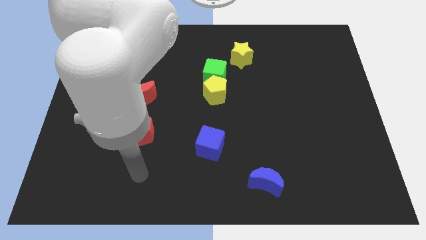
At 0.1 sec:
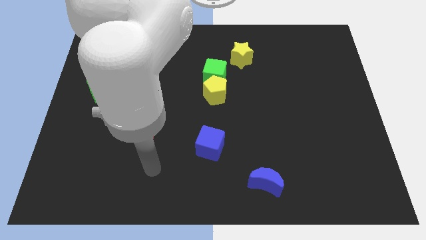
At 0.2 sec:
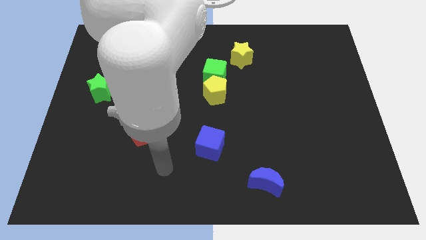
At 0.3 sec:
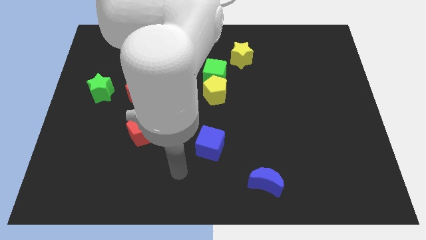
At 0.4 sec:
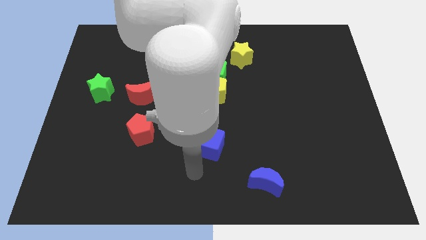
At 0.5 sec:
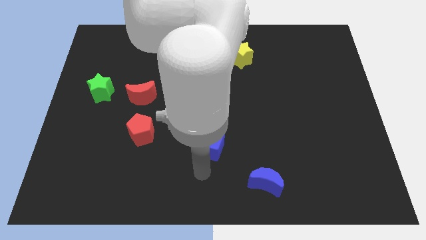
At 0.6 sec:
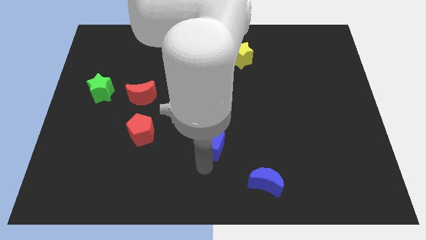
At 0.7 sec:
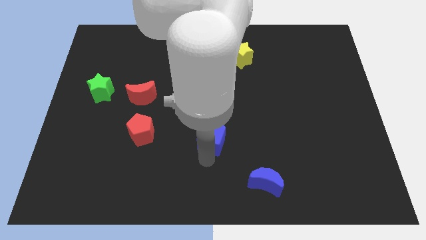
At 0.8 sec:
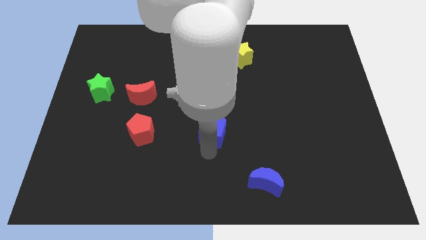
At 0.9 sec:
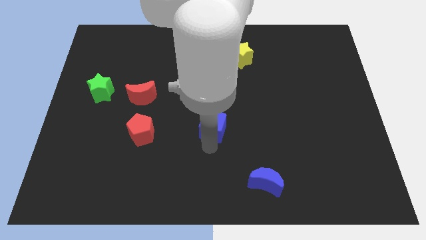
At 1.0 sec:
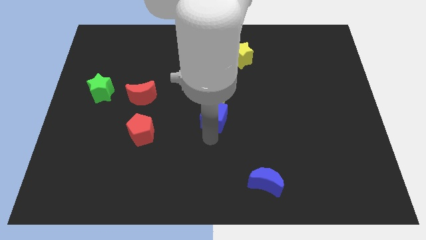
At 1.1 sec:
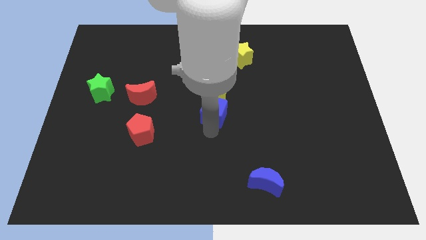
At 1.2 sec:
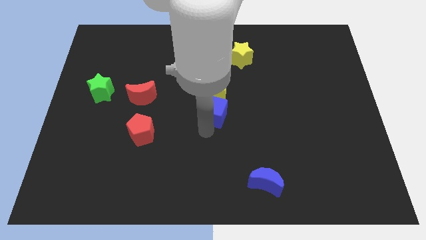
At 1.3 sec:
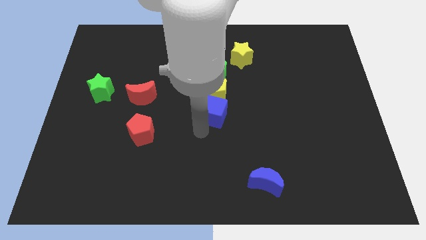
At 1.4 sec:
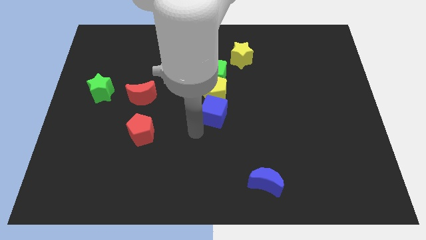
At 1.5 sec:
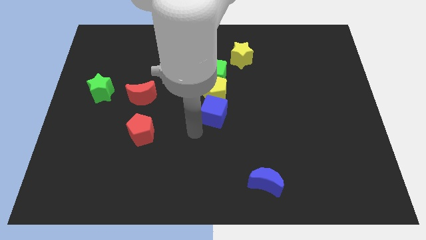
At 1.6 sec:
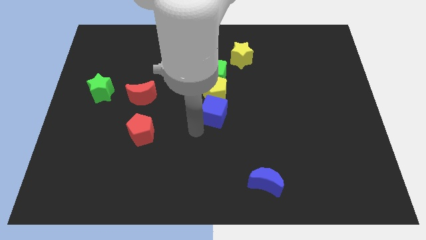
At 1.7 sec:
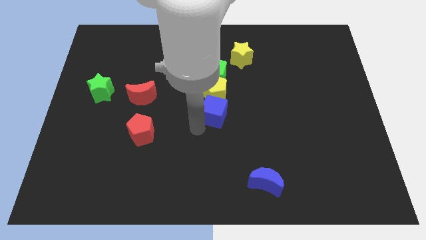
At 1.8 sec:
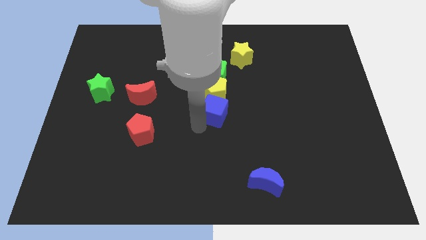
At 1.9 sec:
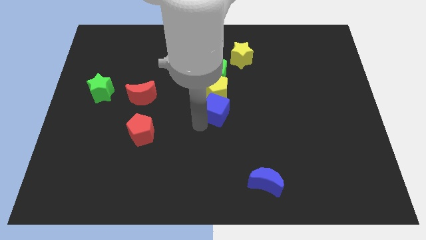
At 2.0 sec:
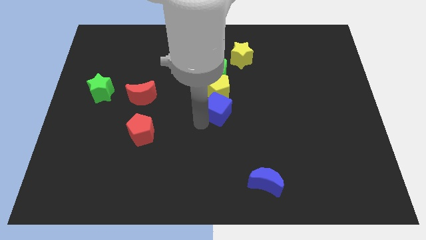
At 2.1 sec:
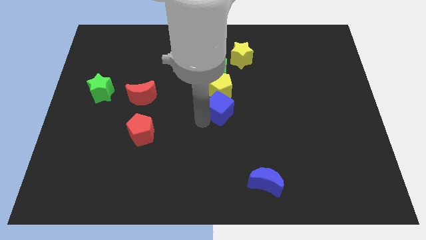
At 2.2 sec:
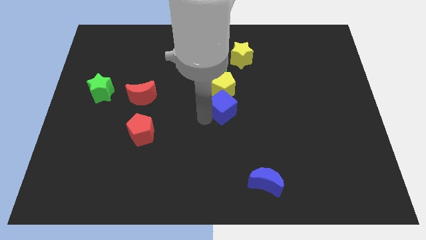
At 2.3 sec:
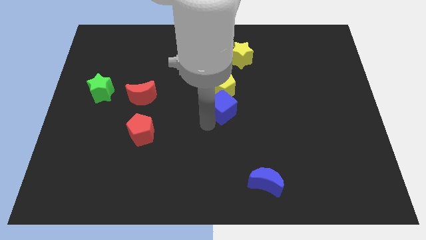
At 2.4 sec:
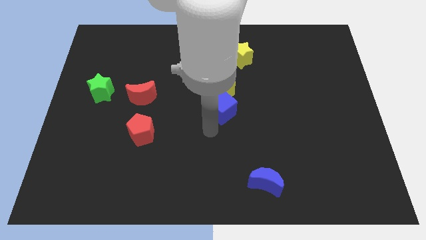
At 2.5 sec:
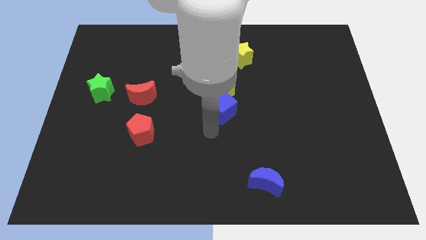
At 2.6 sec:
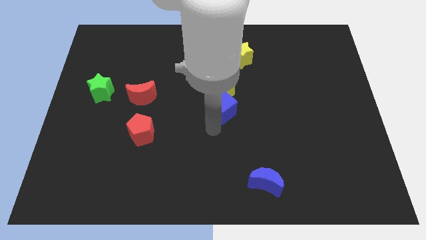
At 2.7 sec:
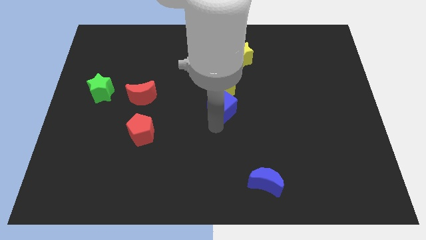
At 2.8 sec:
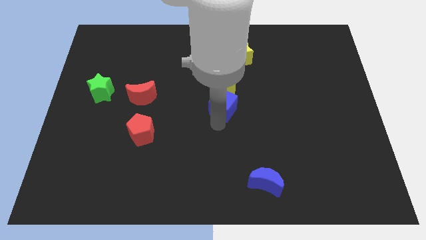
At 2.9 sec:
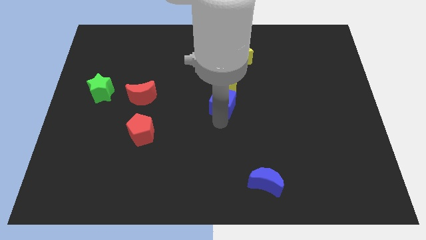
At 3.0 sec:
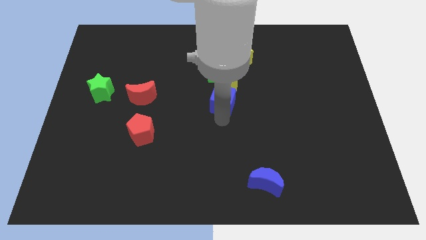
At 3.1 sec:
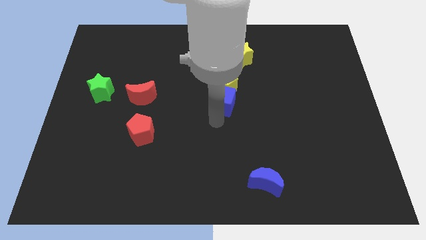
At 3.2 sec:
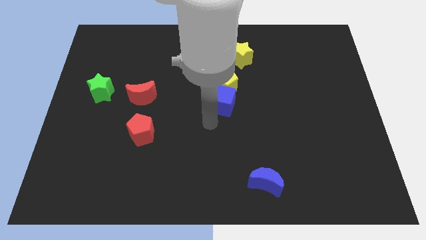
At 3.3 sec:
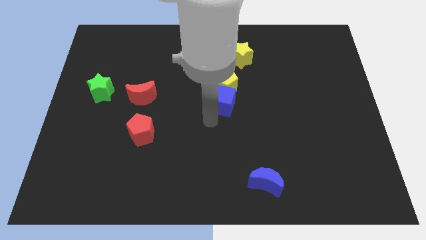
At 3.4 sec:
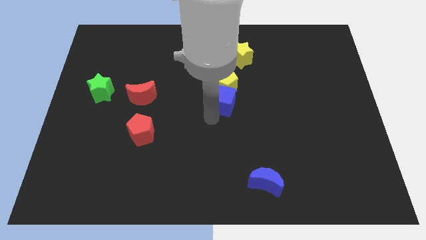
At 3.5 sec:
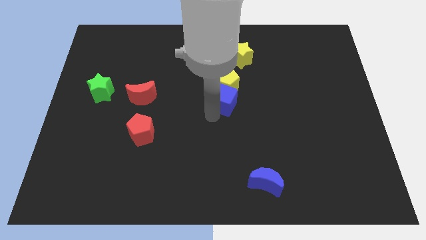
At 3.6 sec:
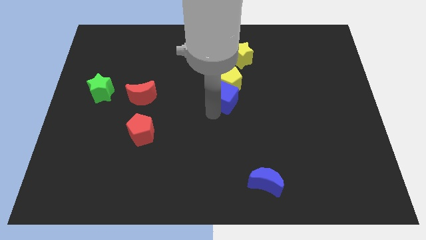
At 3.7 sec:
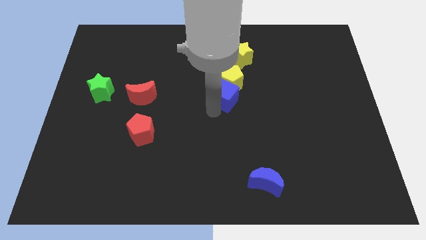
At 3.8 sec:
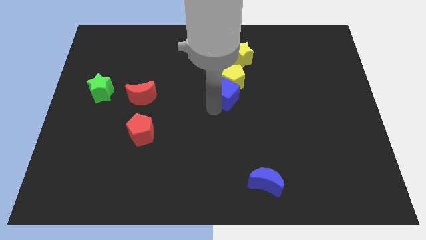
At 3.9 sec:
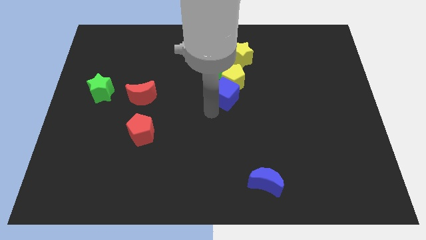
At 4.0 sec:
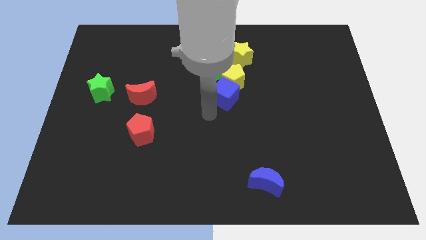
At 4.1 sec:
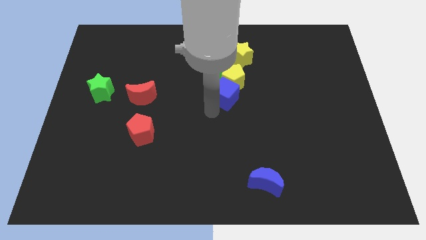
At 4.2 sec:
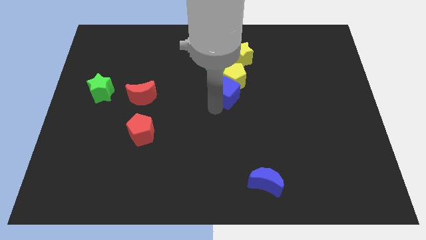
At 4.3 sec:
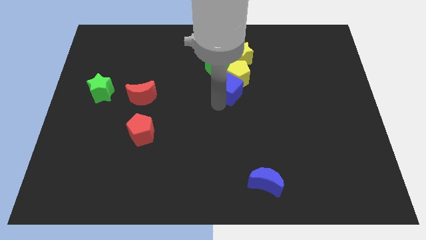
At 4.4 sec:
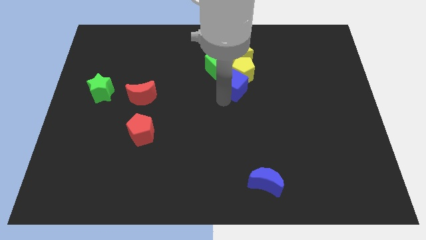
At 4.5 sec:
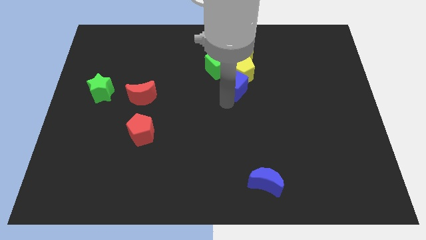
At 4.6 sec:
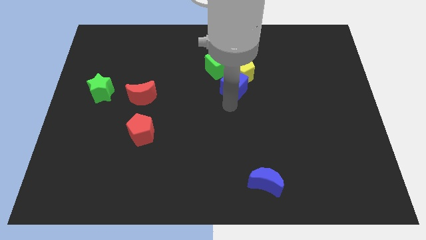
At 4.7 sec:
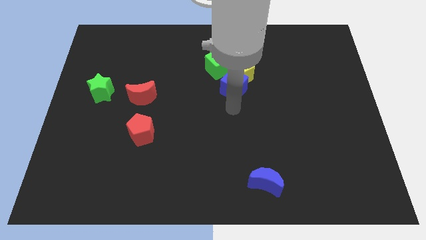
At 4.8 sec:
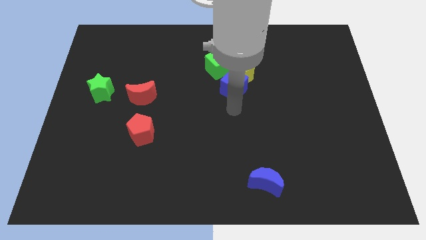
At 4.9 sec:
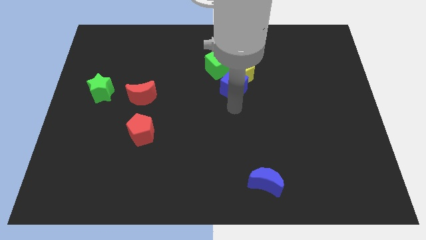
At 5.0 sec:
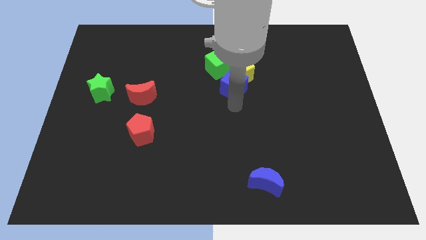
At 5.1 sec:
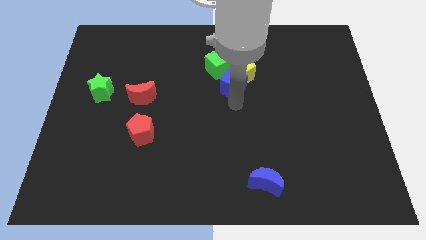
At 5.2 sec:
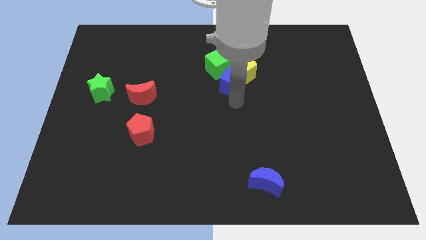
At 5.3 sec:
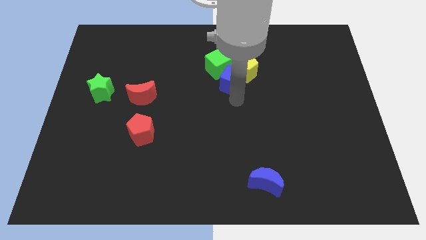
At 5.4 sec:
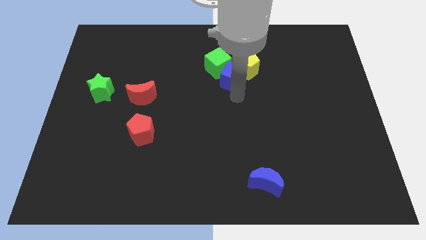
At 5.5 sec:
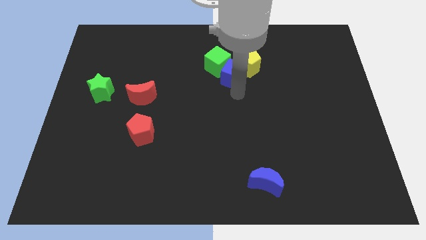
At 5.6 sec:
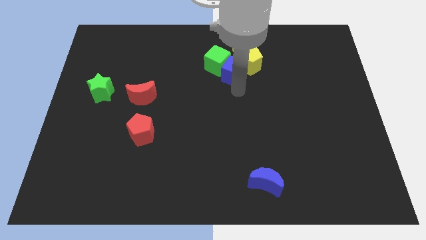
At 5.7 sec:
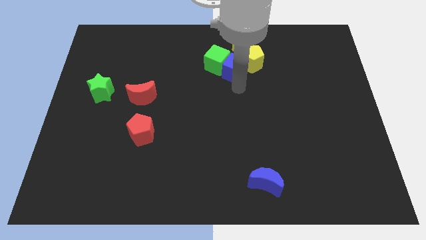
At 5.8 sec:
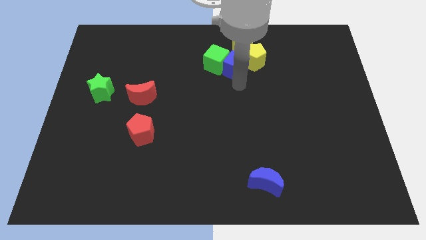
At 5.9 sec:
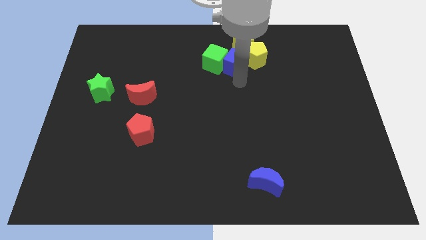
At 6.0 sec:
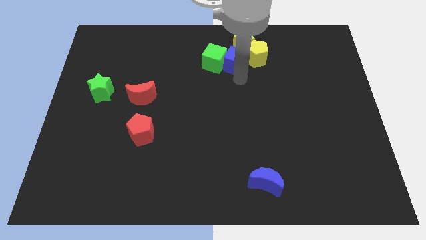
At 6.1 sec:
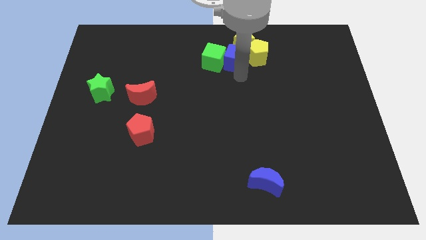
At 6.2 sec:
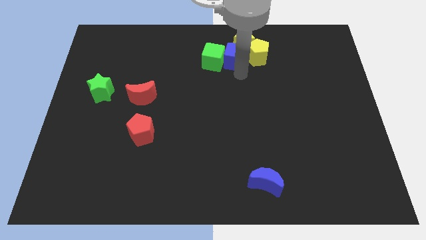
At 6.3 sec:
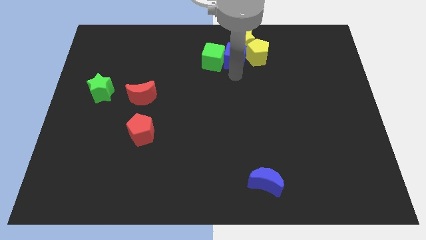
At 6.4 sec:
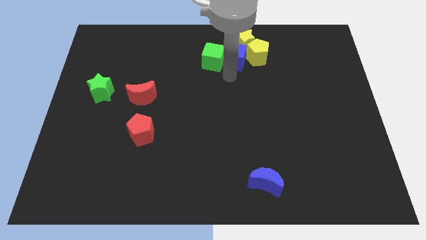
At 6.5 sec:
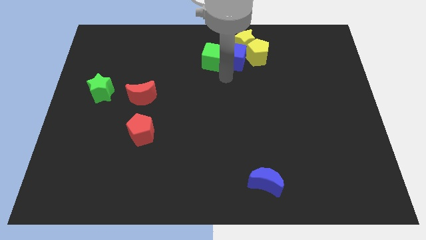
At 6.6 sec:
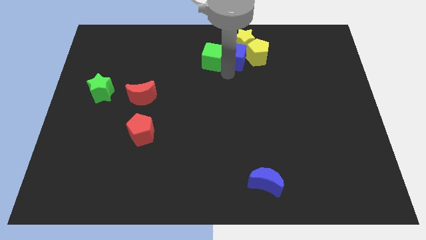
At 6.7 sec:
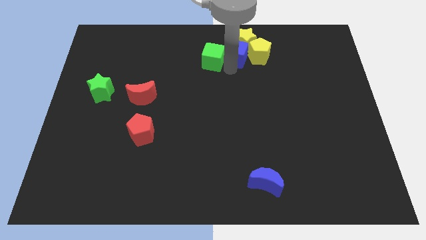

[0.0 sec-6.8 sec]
move the blue cube to the yellow star
